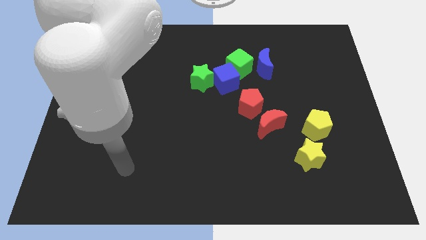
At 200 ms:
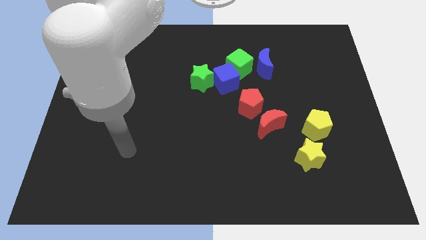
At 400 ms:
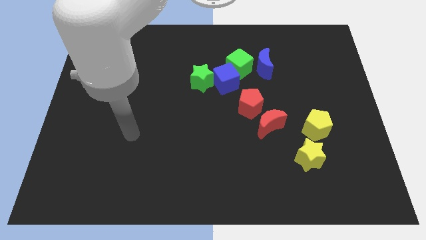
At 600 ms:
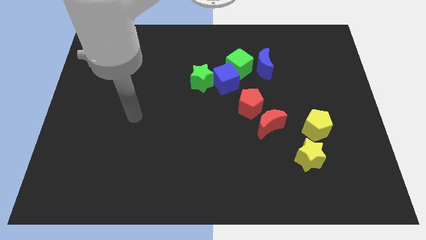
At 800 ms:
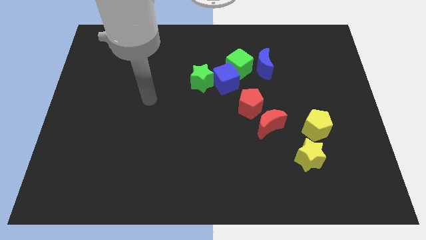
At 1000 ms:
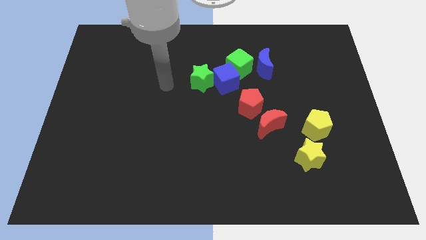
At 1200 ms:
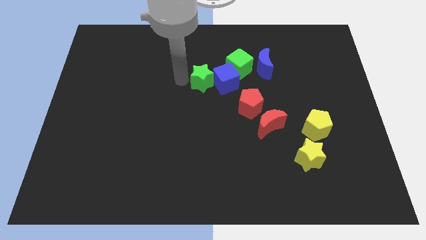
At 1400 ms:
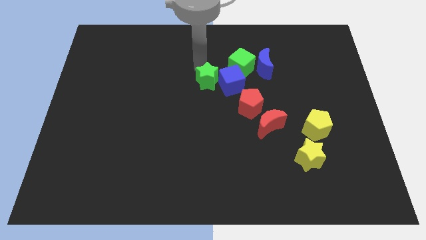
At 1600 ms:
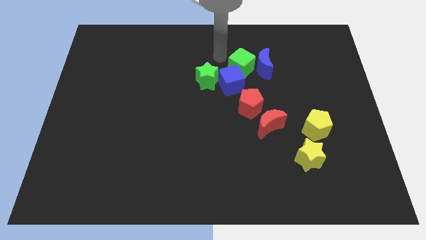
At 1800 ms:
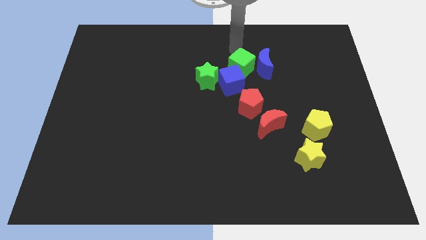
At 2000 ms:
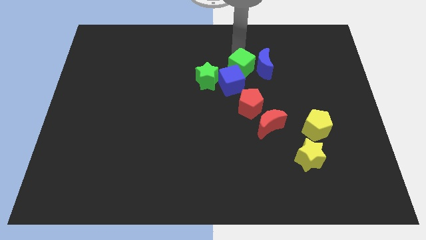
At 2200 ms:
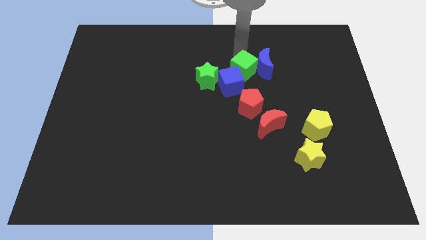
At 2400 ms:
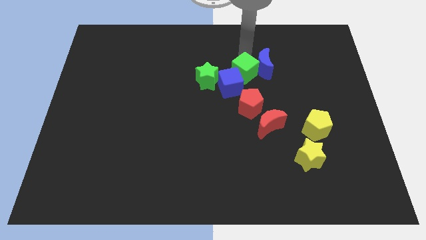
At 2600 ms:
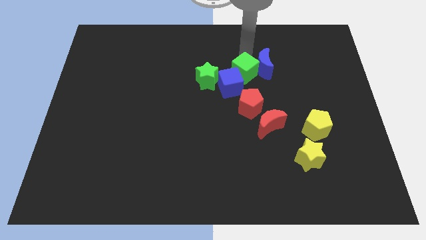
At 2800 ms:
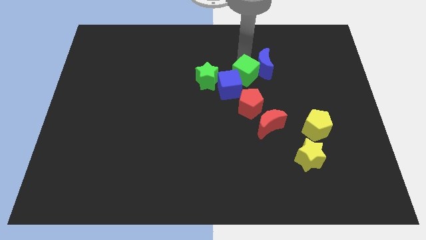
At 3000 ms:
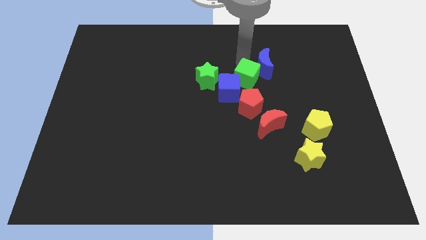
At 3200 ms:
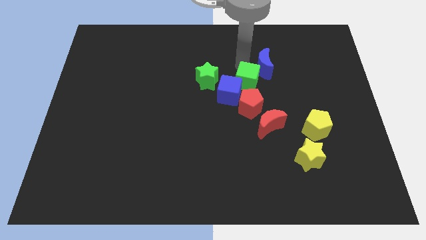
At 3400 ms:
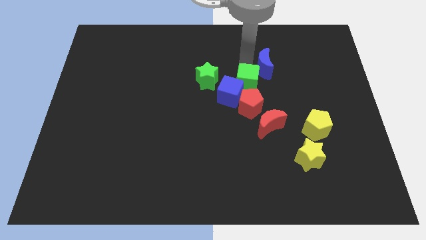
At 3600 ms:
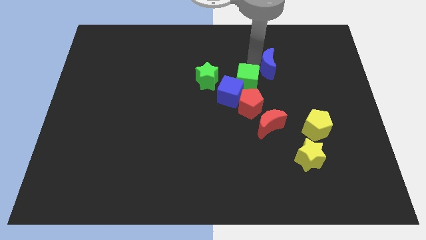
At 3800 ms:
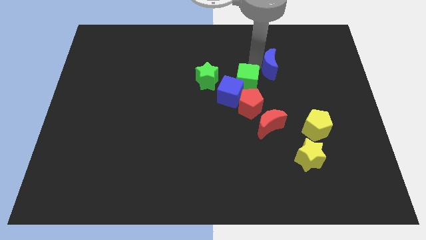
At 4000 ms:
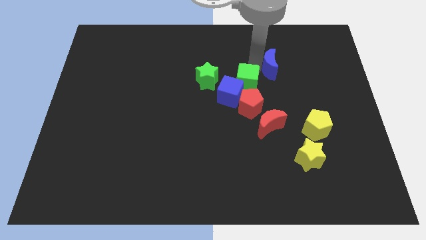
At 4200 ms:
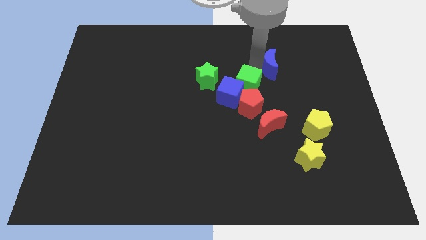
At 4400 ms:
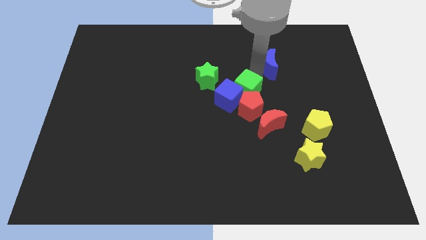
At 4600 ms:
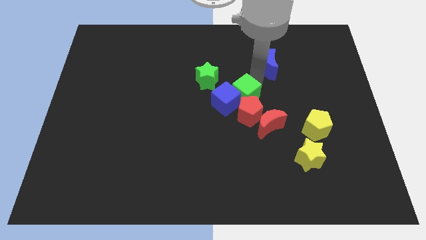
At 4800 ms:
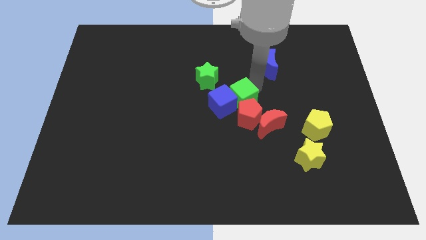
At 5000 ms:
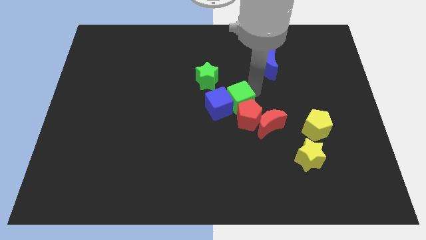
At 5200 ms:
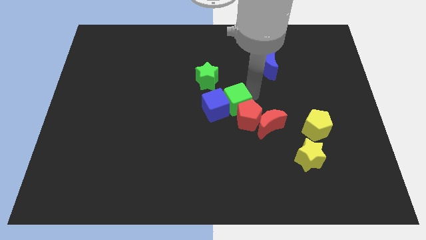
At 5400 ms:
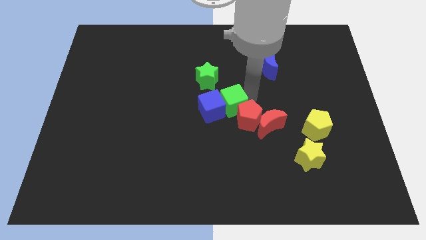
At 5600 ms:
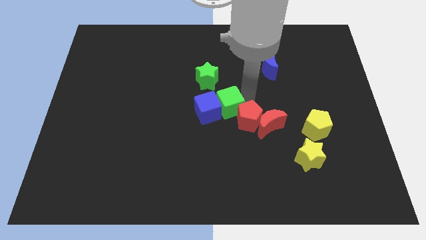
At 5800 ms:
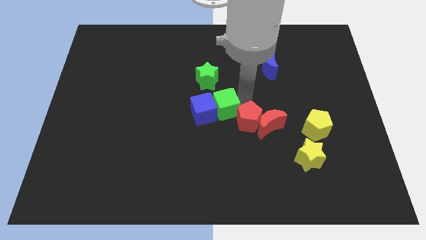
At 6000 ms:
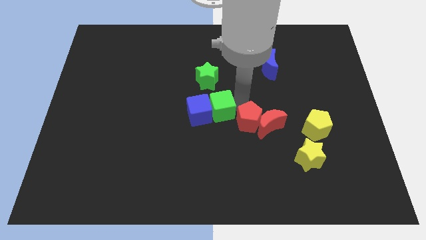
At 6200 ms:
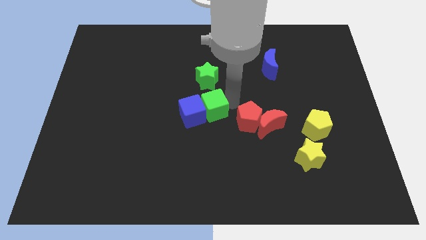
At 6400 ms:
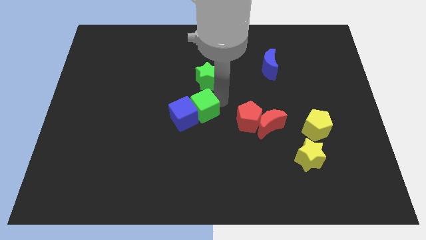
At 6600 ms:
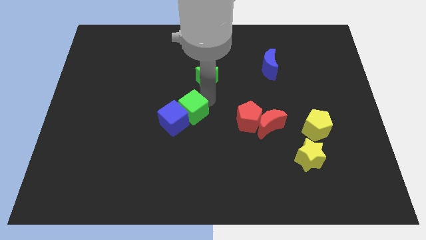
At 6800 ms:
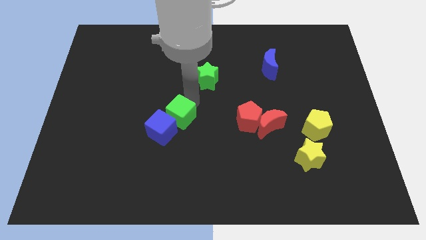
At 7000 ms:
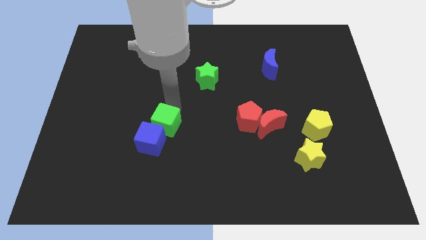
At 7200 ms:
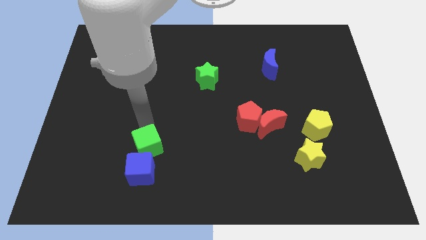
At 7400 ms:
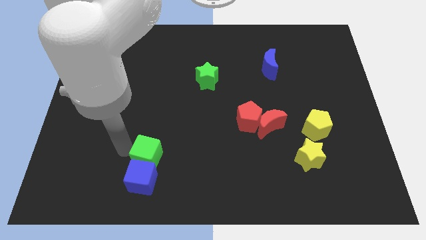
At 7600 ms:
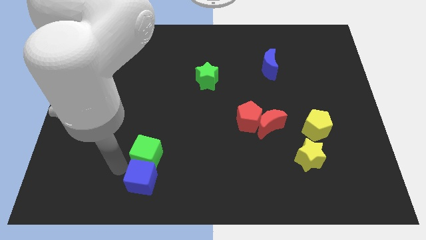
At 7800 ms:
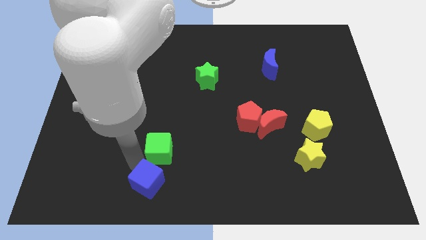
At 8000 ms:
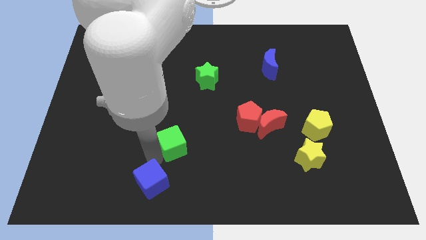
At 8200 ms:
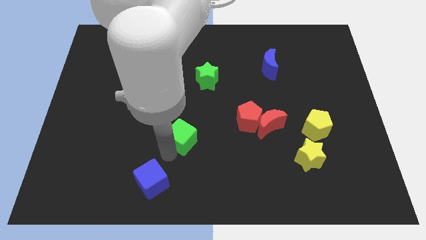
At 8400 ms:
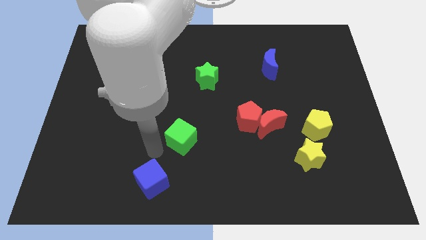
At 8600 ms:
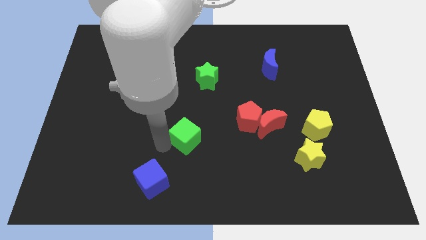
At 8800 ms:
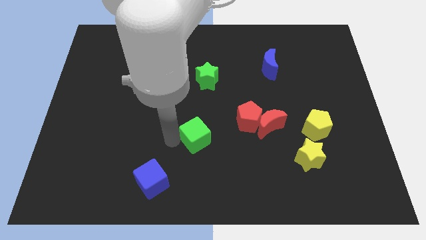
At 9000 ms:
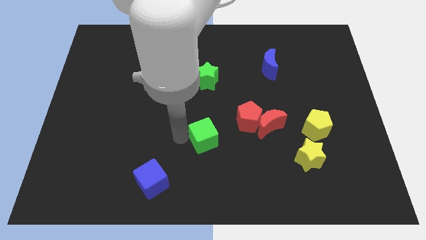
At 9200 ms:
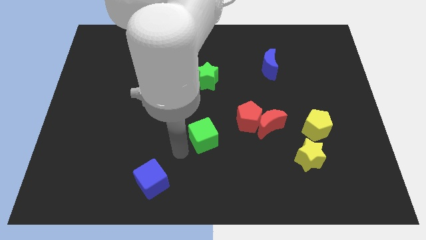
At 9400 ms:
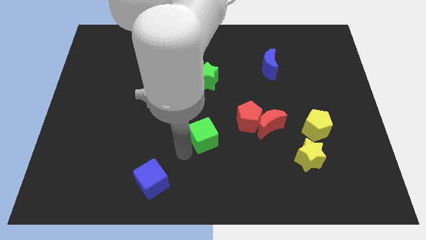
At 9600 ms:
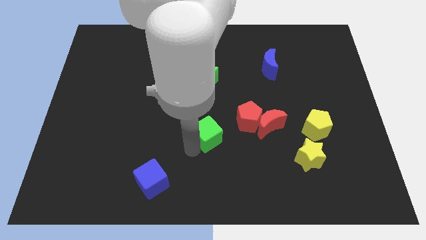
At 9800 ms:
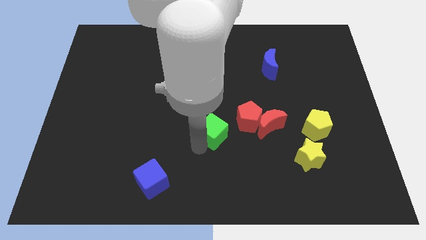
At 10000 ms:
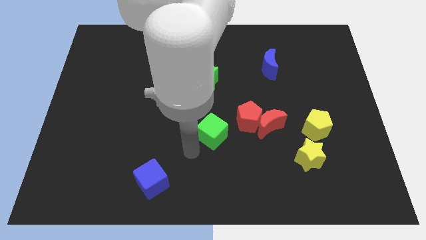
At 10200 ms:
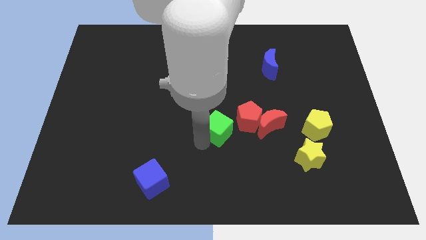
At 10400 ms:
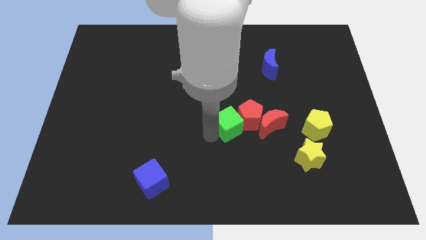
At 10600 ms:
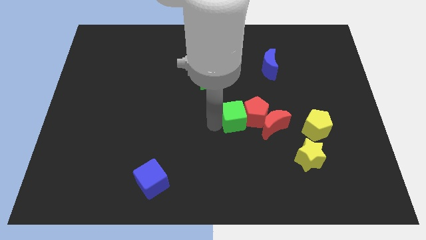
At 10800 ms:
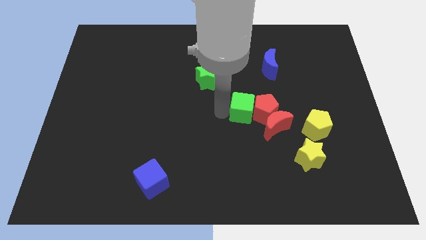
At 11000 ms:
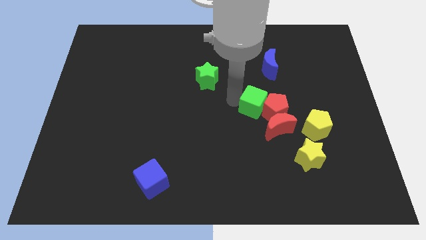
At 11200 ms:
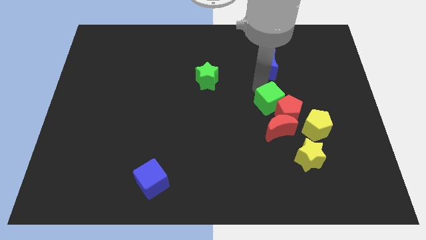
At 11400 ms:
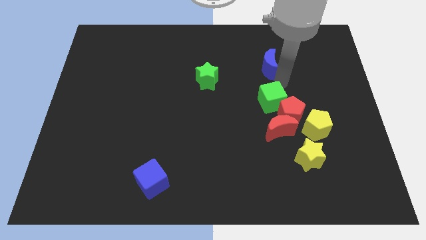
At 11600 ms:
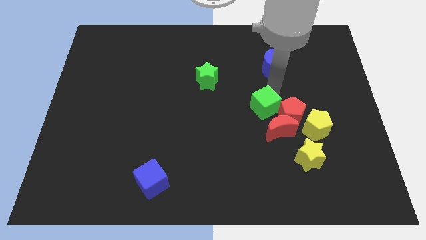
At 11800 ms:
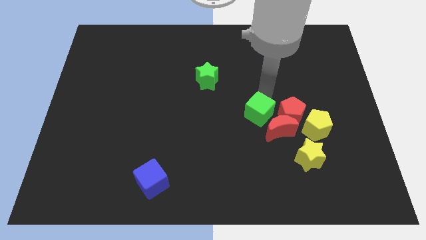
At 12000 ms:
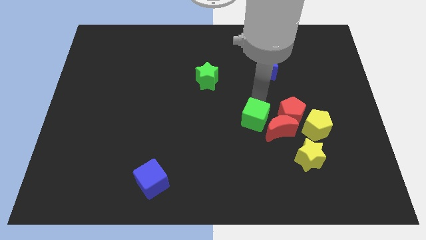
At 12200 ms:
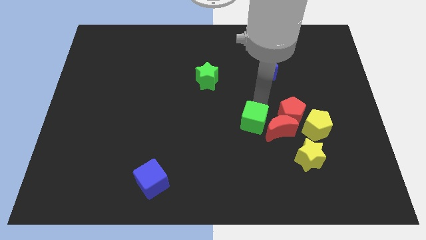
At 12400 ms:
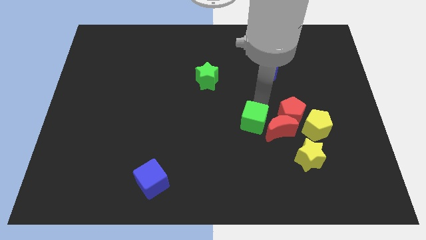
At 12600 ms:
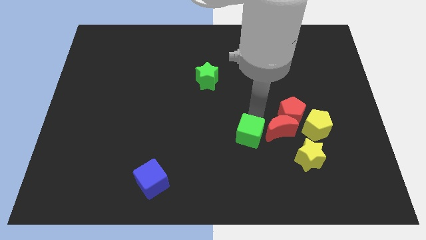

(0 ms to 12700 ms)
move the green cube downwards

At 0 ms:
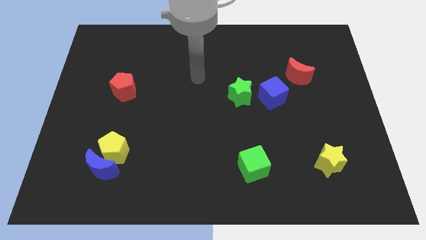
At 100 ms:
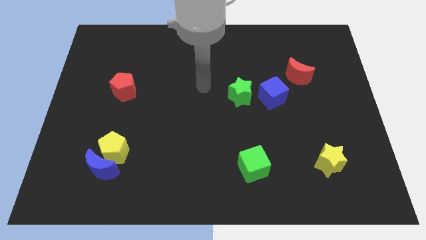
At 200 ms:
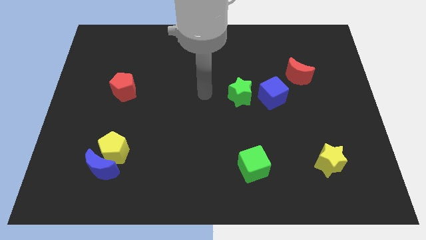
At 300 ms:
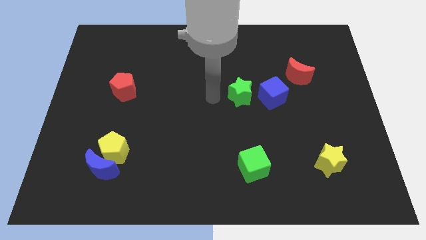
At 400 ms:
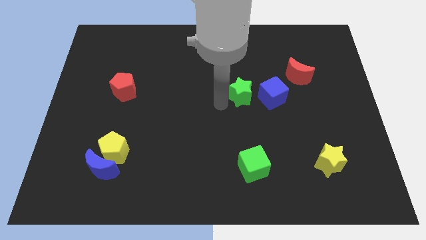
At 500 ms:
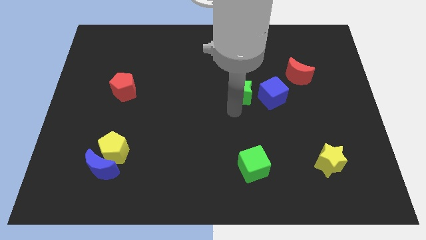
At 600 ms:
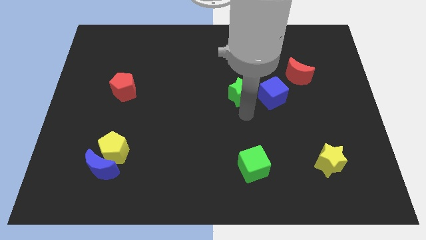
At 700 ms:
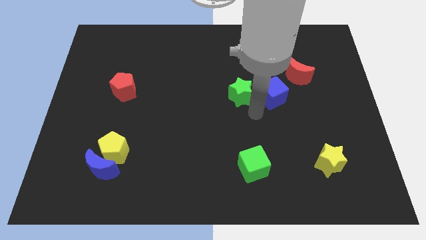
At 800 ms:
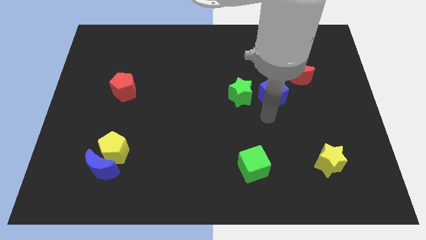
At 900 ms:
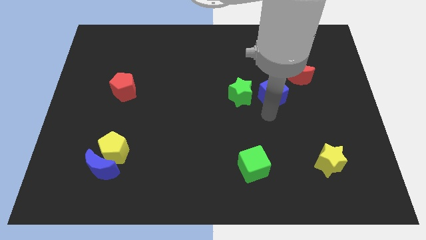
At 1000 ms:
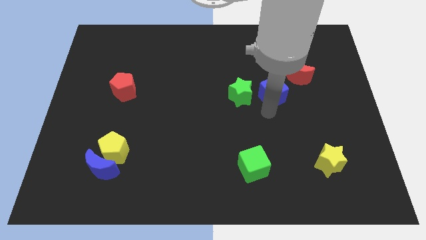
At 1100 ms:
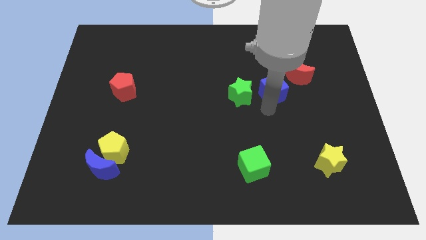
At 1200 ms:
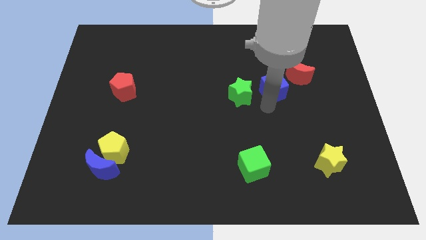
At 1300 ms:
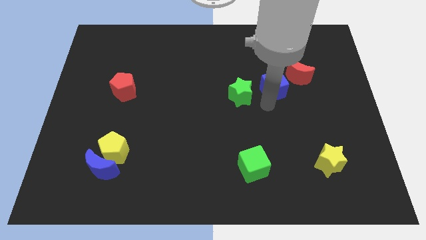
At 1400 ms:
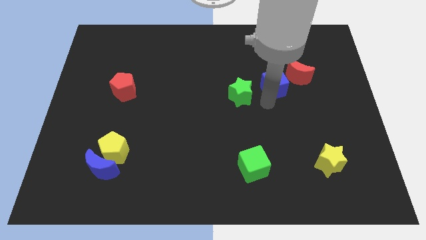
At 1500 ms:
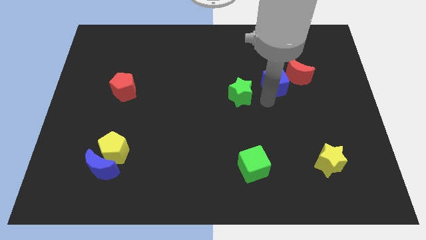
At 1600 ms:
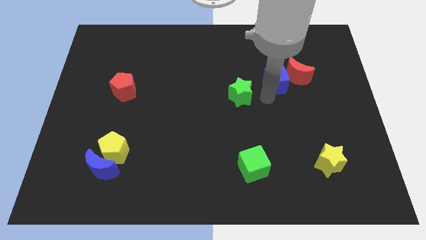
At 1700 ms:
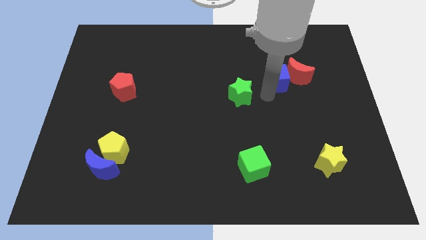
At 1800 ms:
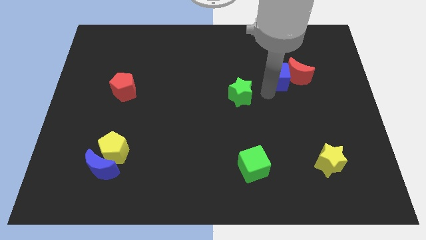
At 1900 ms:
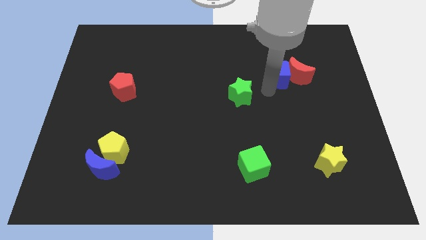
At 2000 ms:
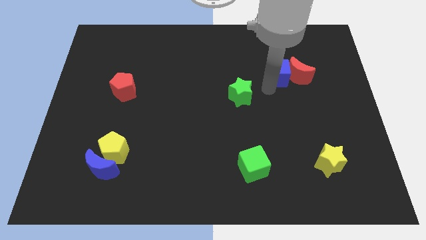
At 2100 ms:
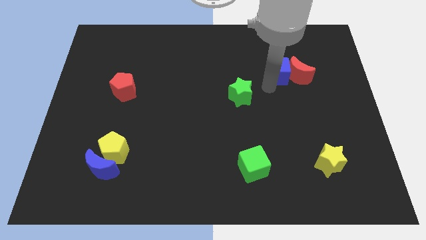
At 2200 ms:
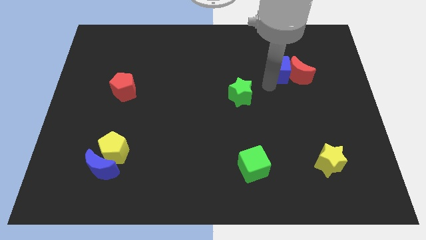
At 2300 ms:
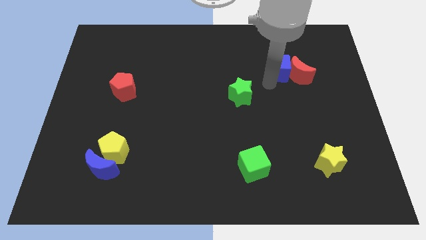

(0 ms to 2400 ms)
push the blue cube a bit up and then right

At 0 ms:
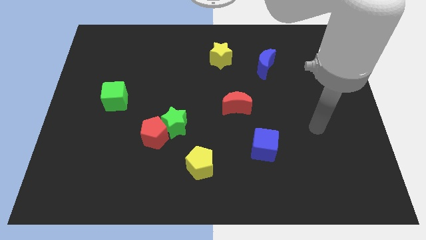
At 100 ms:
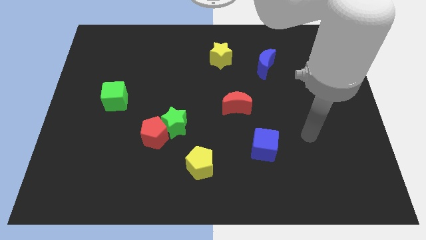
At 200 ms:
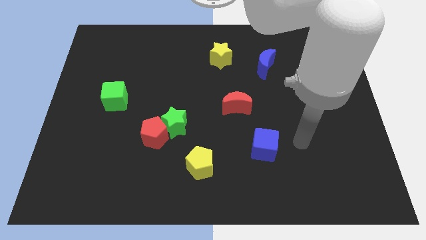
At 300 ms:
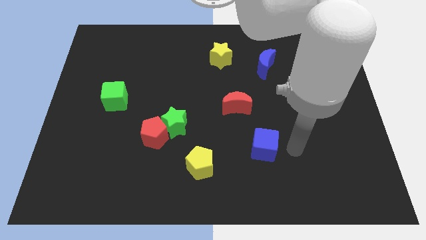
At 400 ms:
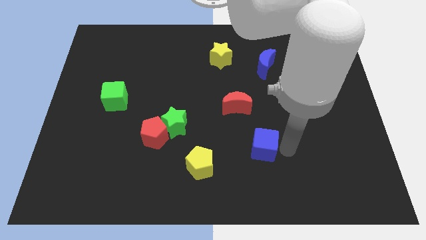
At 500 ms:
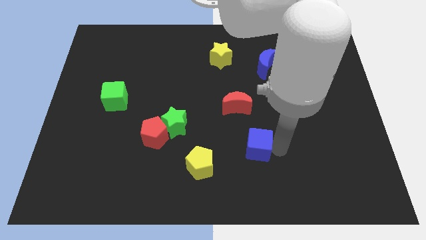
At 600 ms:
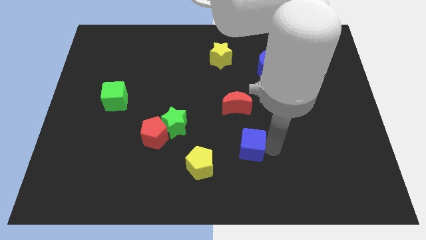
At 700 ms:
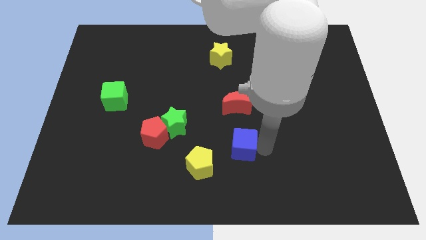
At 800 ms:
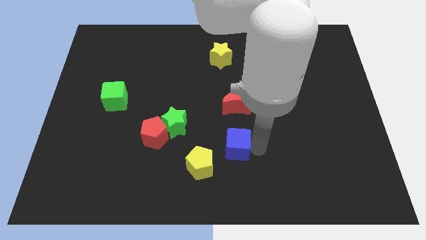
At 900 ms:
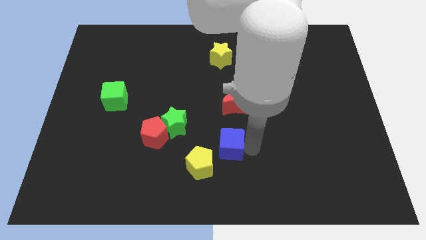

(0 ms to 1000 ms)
slide the blue cube left somewhat
